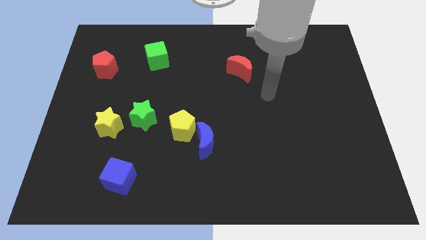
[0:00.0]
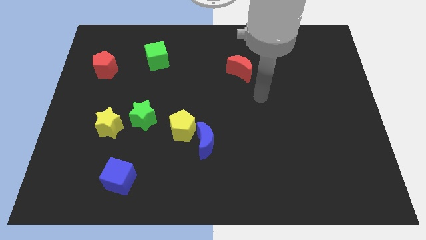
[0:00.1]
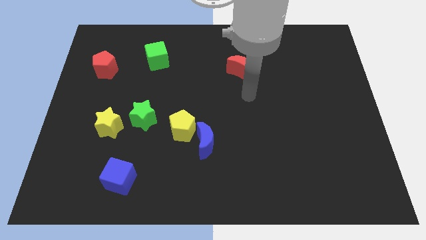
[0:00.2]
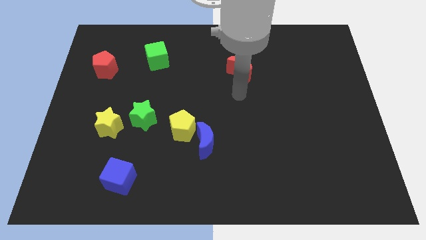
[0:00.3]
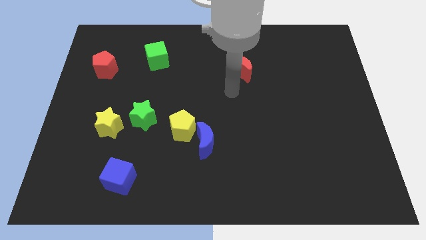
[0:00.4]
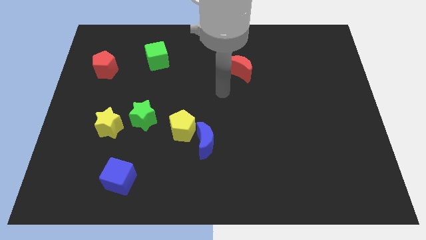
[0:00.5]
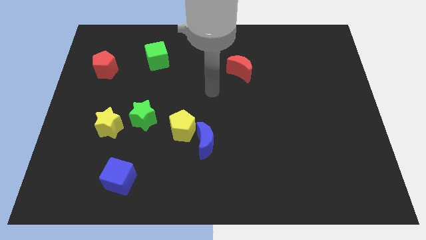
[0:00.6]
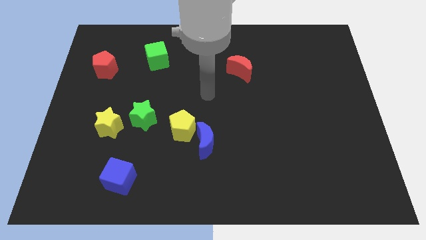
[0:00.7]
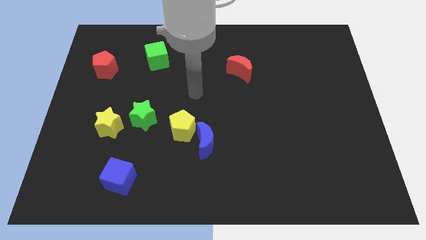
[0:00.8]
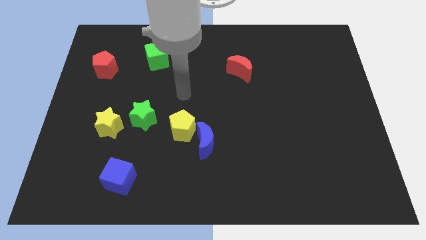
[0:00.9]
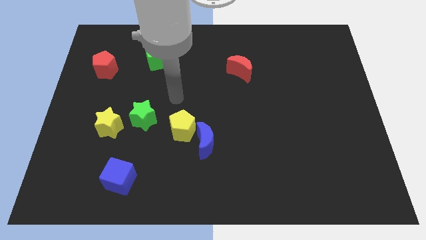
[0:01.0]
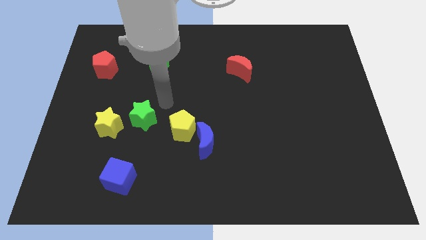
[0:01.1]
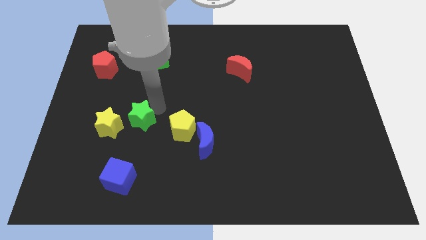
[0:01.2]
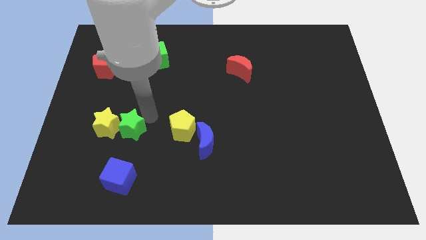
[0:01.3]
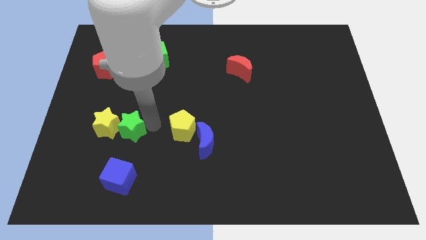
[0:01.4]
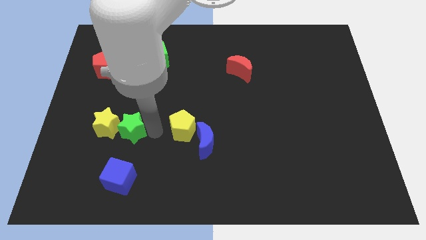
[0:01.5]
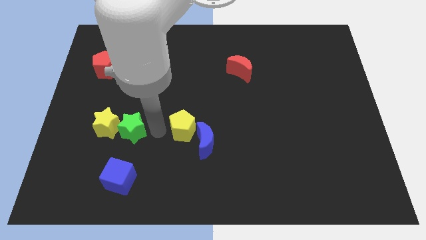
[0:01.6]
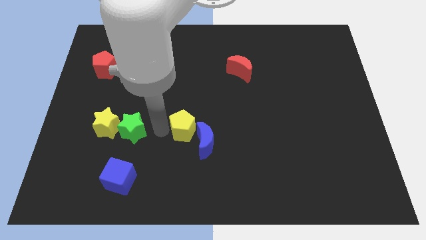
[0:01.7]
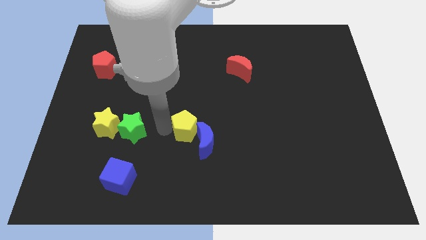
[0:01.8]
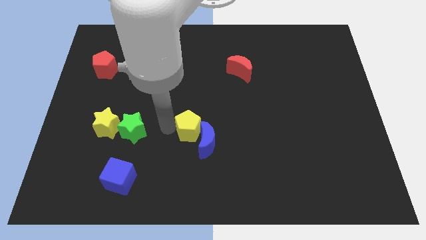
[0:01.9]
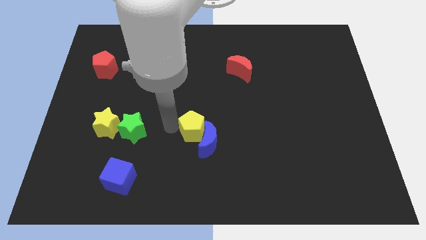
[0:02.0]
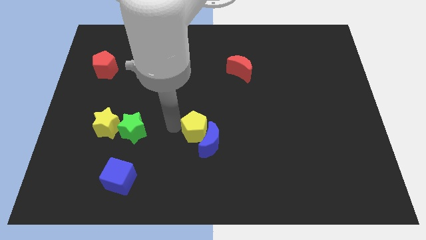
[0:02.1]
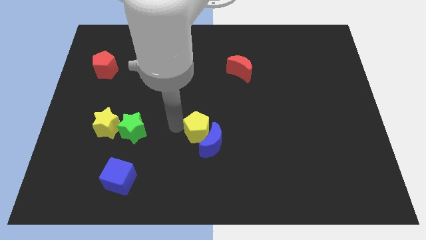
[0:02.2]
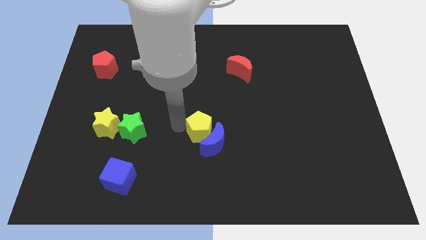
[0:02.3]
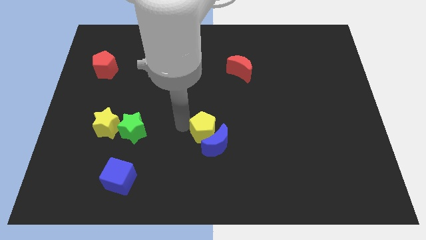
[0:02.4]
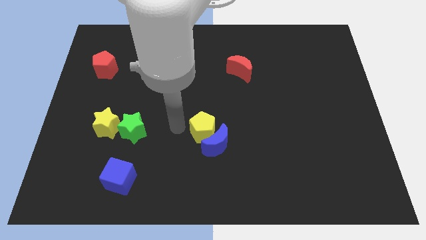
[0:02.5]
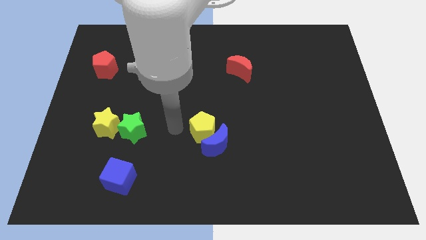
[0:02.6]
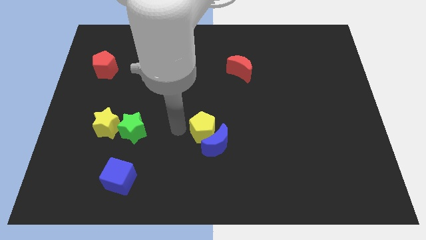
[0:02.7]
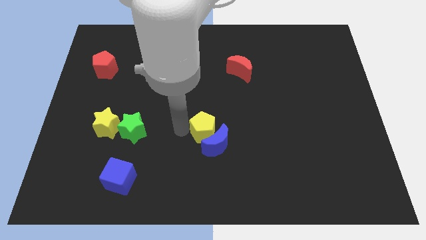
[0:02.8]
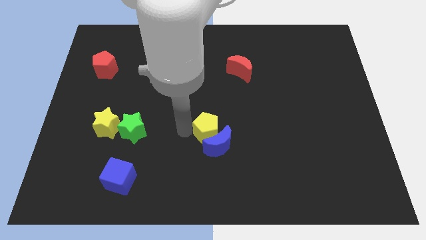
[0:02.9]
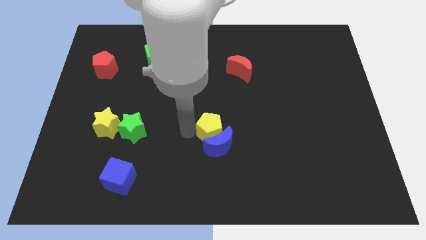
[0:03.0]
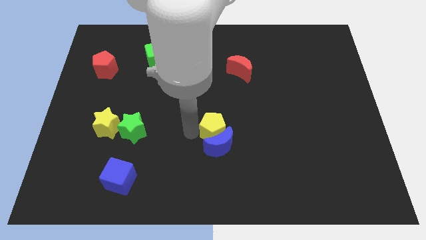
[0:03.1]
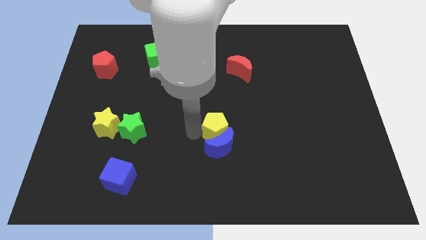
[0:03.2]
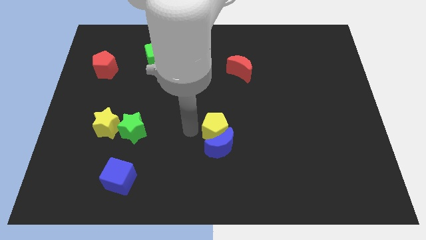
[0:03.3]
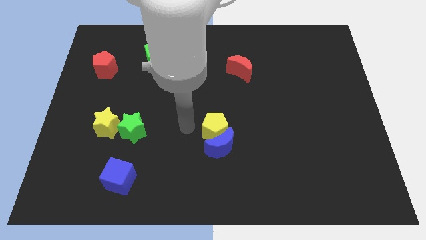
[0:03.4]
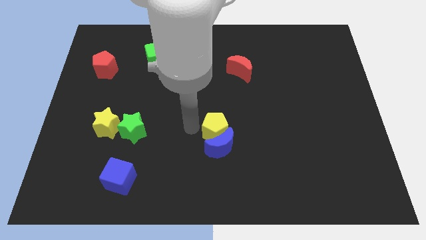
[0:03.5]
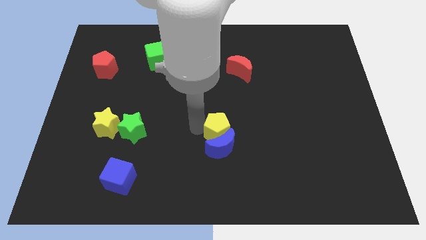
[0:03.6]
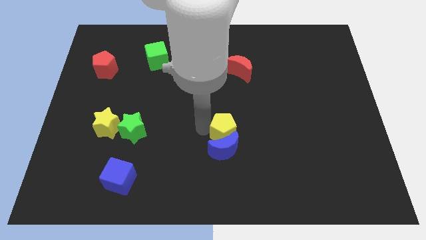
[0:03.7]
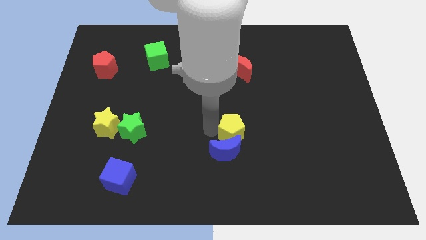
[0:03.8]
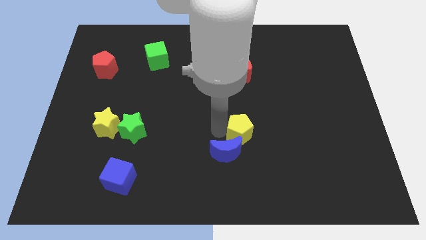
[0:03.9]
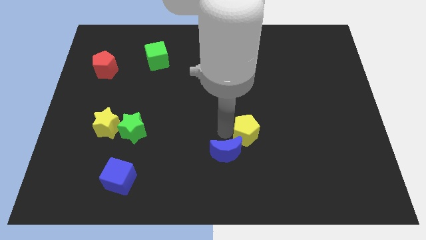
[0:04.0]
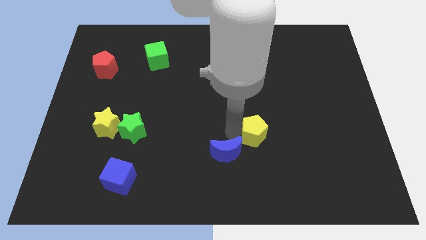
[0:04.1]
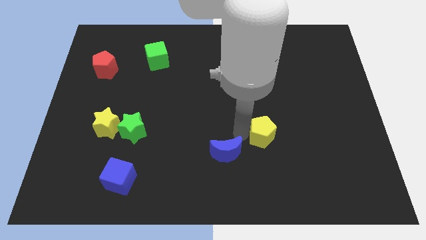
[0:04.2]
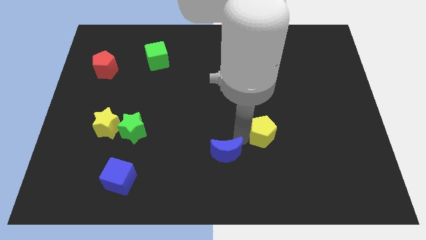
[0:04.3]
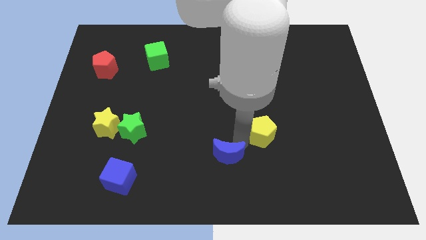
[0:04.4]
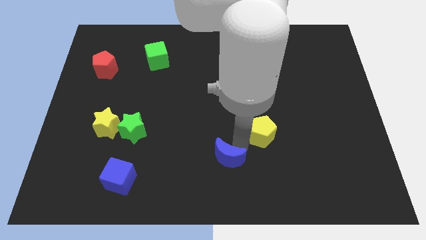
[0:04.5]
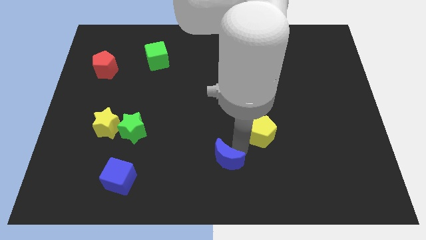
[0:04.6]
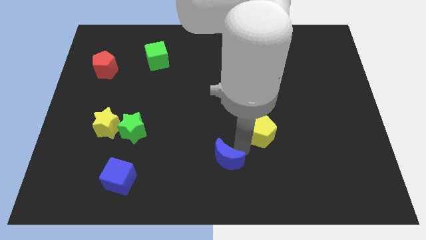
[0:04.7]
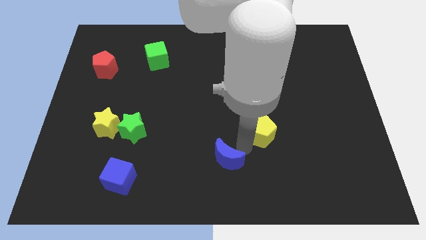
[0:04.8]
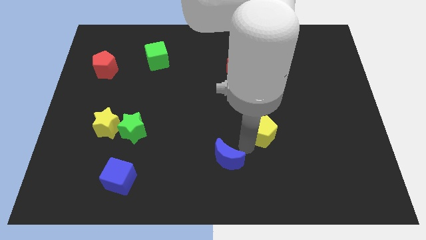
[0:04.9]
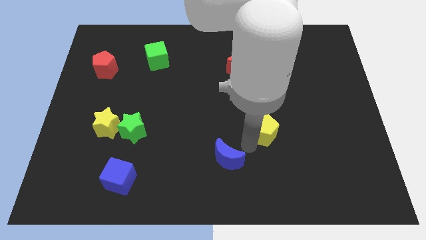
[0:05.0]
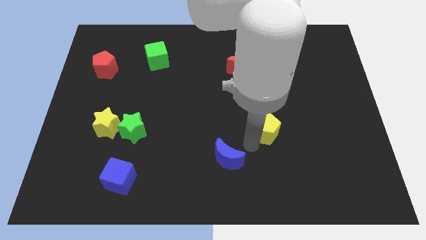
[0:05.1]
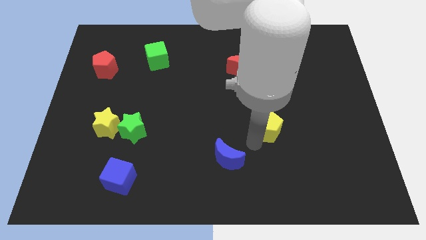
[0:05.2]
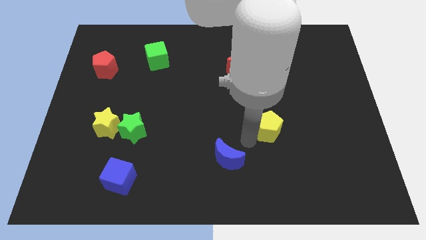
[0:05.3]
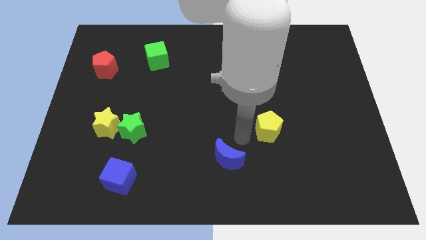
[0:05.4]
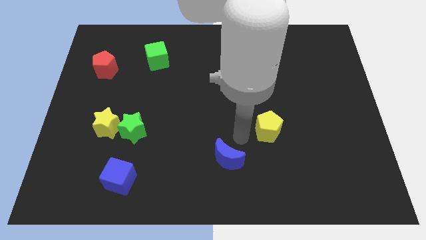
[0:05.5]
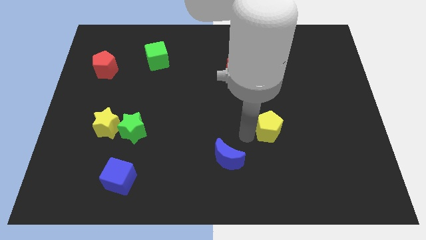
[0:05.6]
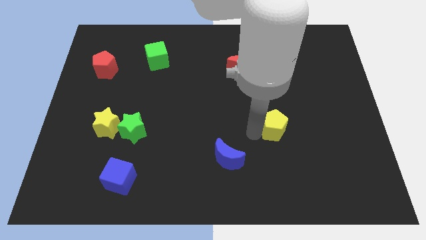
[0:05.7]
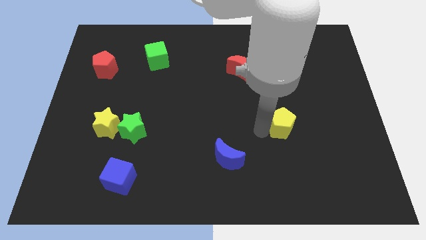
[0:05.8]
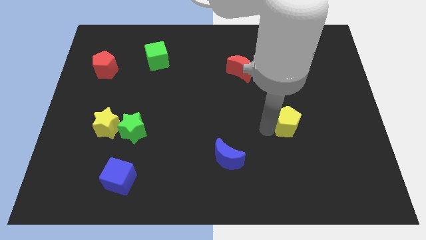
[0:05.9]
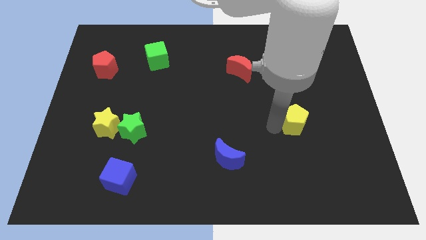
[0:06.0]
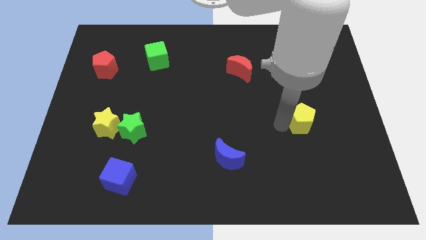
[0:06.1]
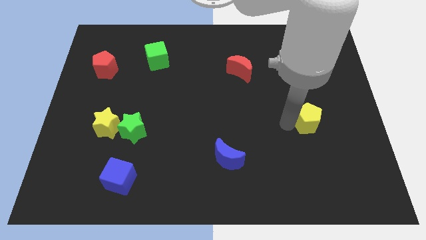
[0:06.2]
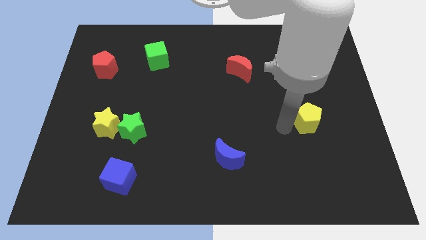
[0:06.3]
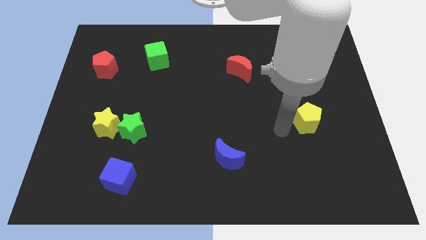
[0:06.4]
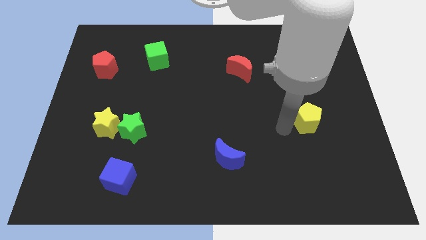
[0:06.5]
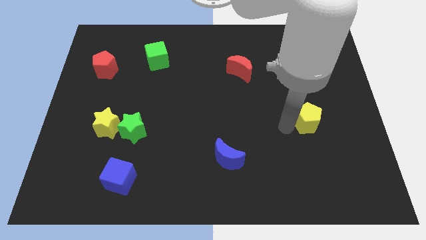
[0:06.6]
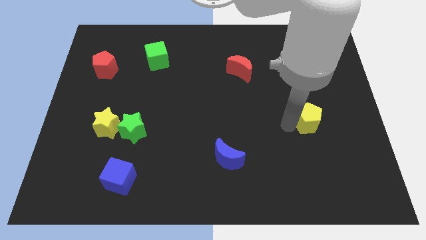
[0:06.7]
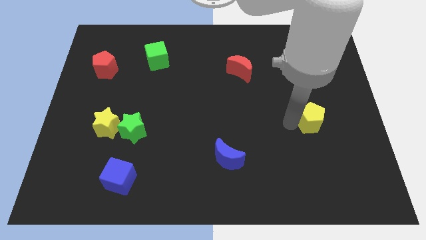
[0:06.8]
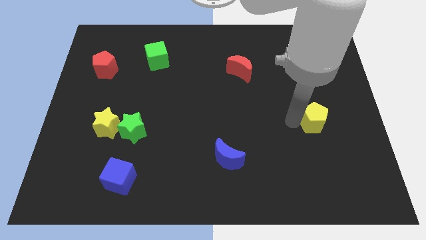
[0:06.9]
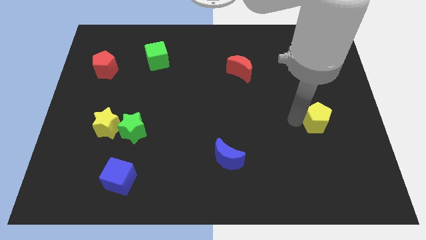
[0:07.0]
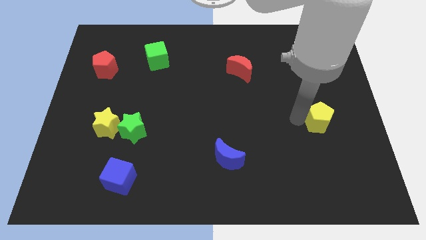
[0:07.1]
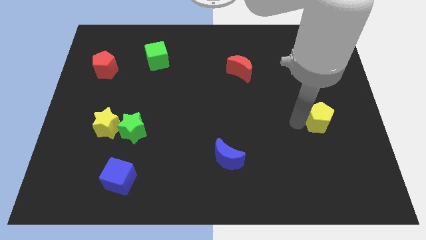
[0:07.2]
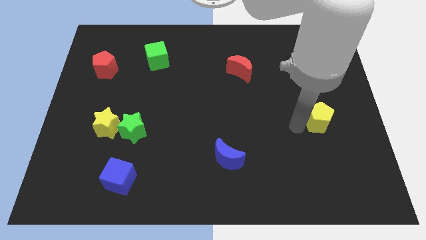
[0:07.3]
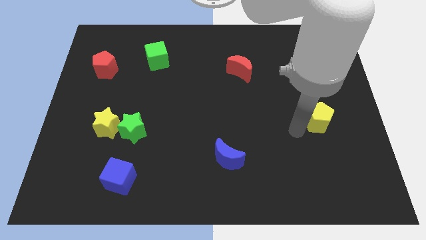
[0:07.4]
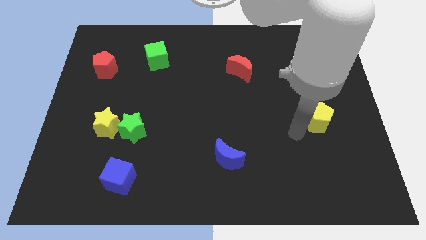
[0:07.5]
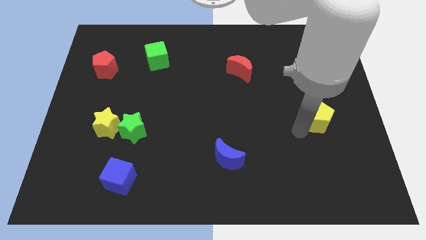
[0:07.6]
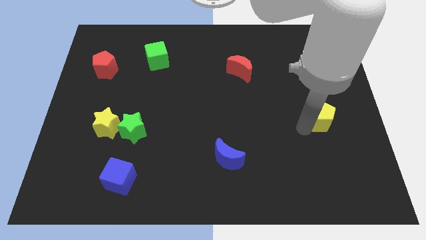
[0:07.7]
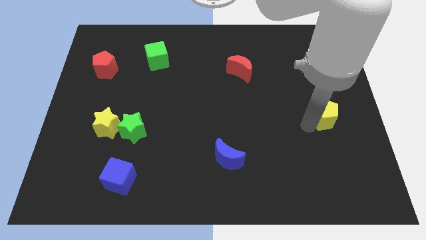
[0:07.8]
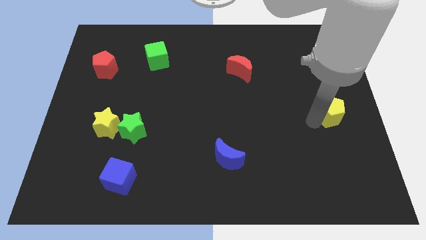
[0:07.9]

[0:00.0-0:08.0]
push the yellow pentagon to the right side
